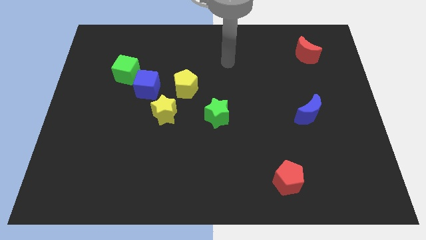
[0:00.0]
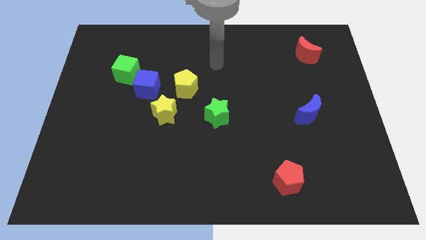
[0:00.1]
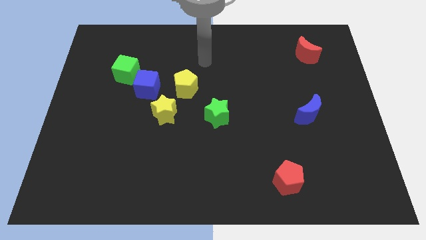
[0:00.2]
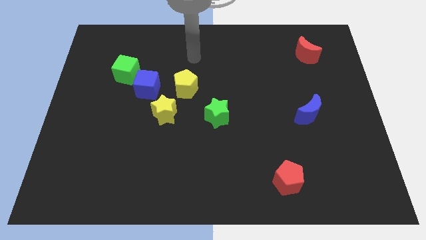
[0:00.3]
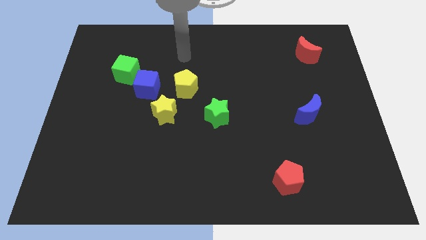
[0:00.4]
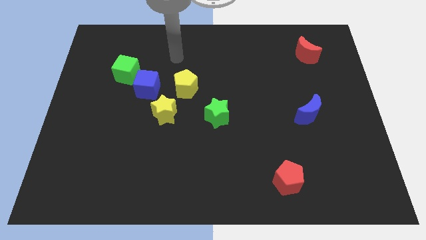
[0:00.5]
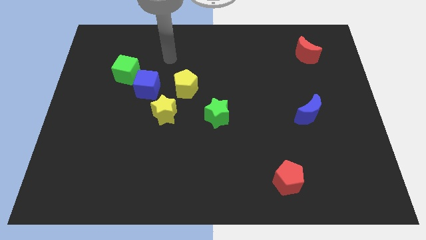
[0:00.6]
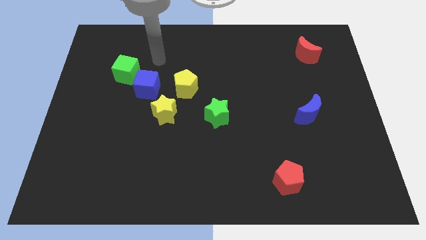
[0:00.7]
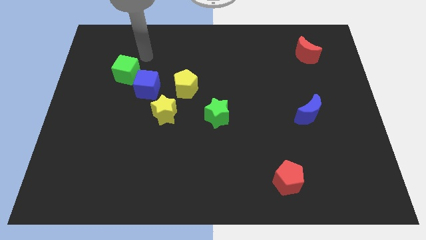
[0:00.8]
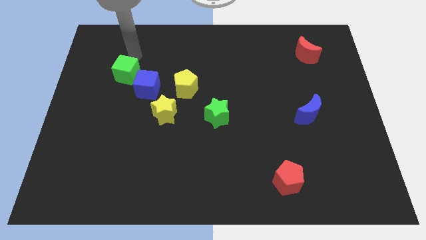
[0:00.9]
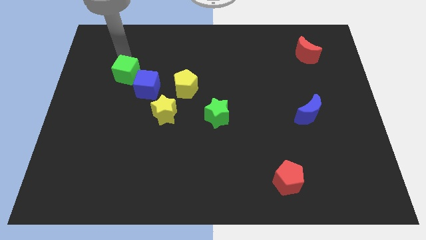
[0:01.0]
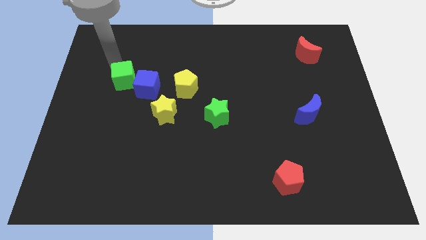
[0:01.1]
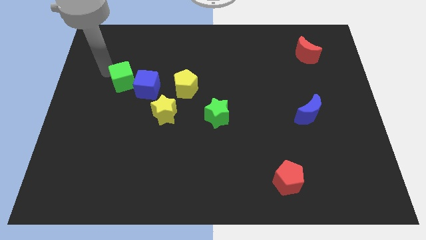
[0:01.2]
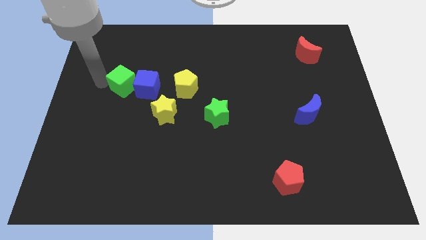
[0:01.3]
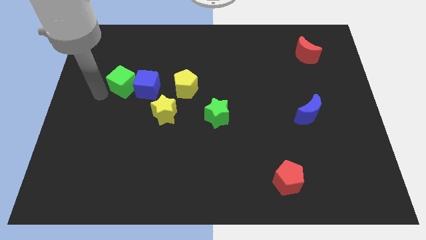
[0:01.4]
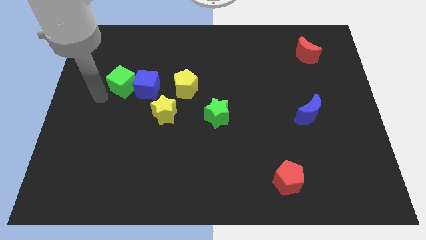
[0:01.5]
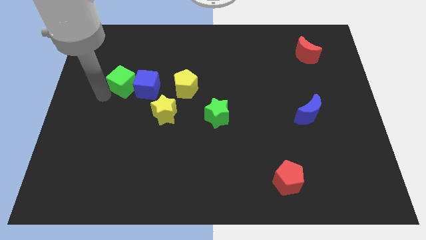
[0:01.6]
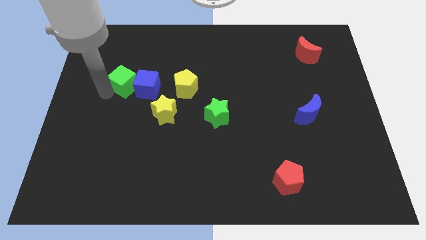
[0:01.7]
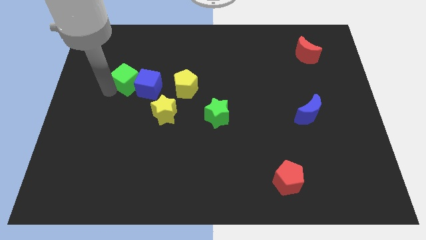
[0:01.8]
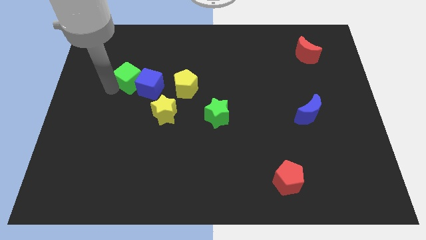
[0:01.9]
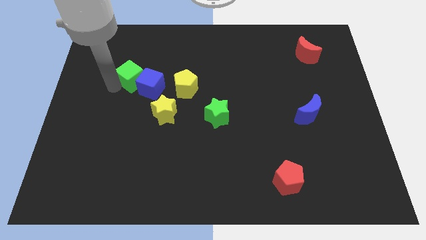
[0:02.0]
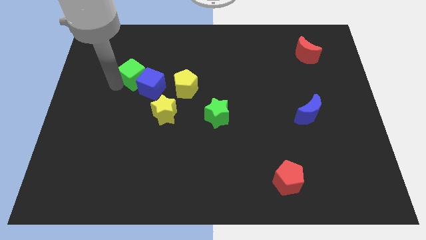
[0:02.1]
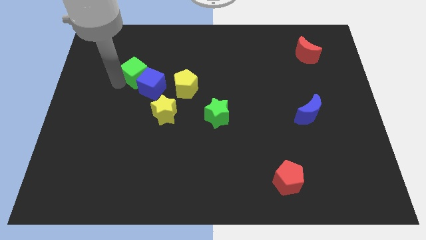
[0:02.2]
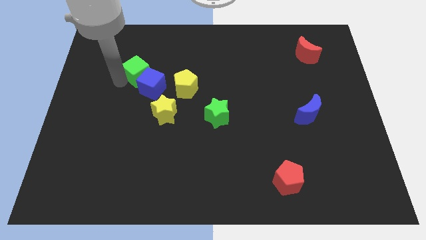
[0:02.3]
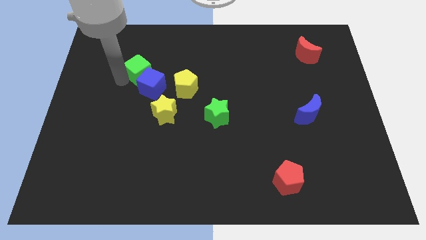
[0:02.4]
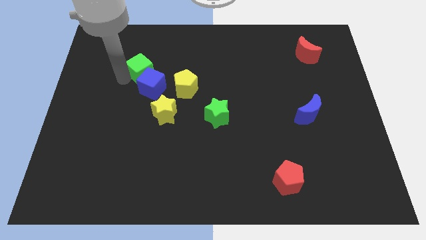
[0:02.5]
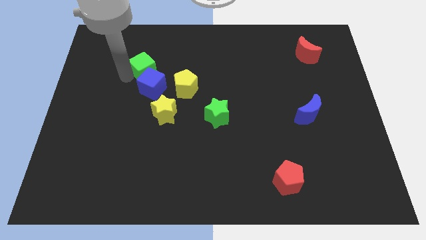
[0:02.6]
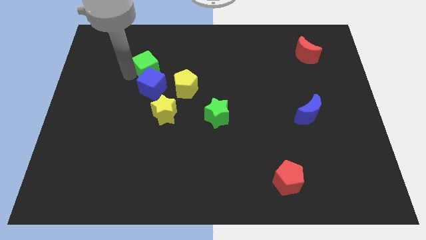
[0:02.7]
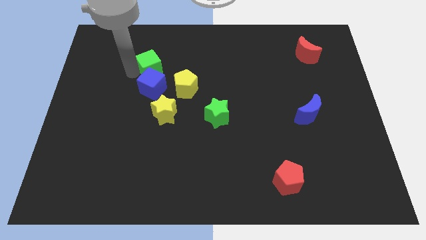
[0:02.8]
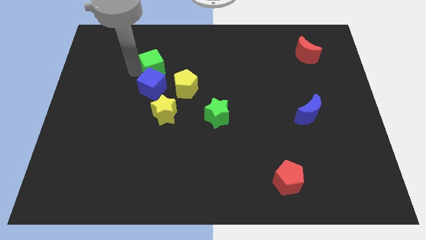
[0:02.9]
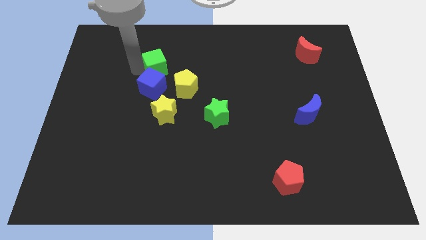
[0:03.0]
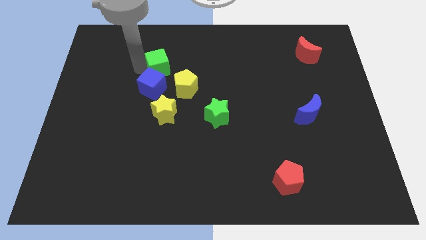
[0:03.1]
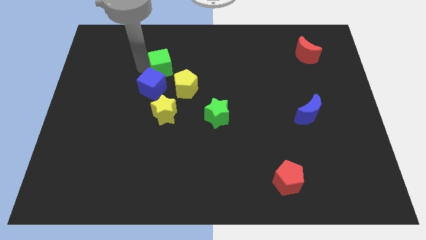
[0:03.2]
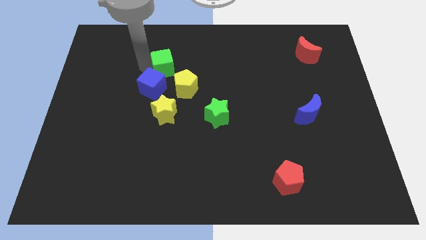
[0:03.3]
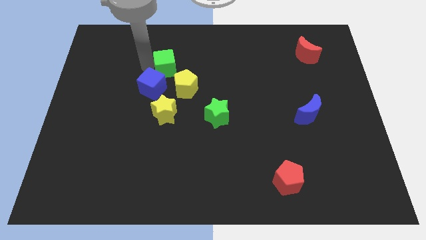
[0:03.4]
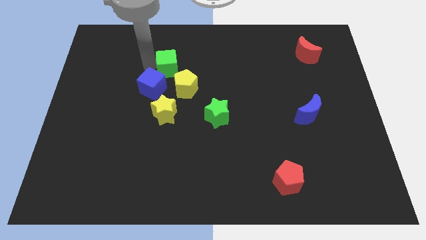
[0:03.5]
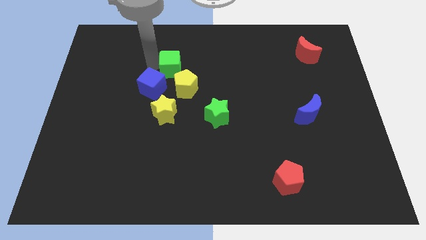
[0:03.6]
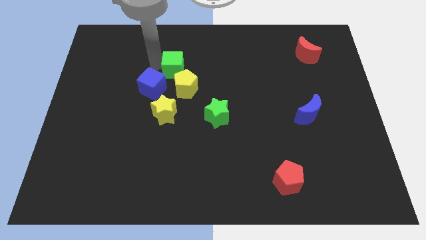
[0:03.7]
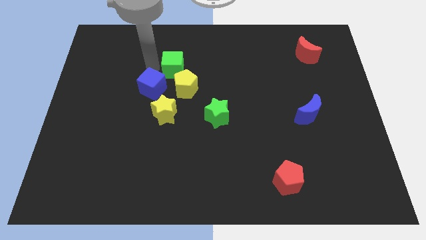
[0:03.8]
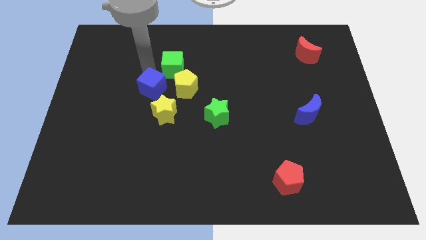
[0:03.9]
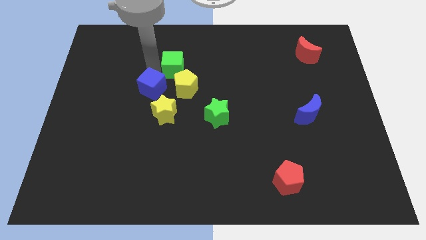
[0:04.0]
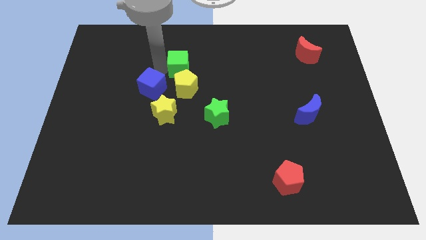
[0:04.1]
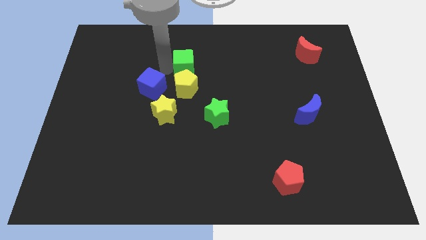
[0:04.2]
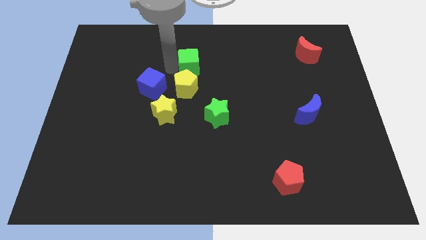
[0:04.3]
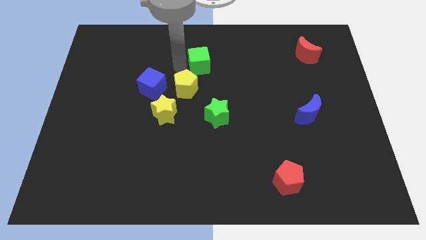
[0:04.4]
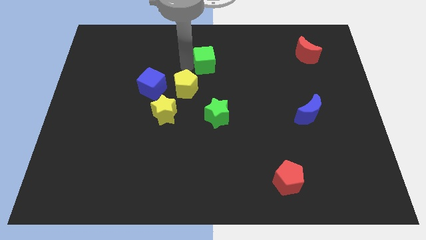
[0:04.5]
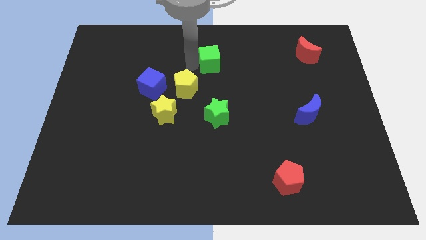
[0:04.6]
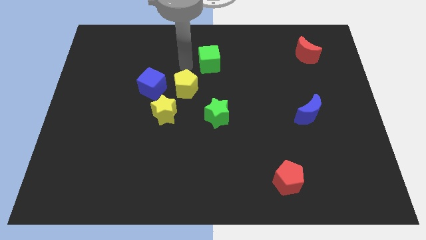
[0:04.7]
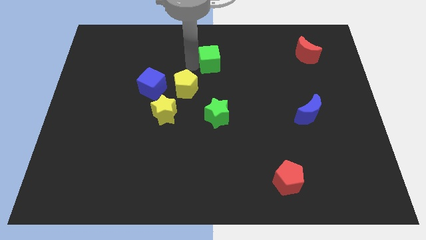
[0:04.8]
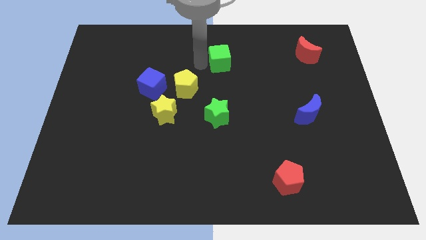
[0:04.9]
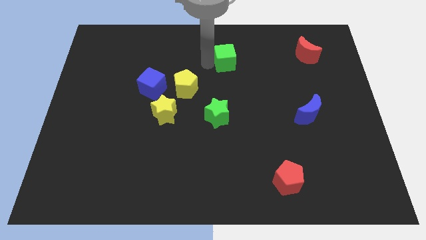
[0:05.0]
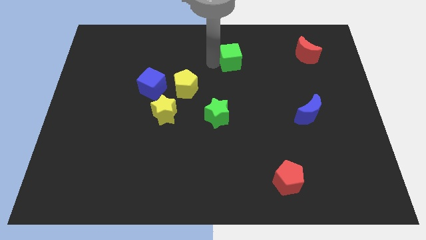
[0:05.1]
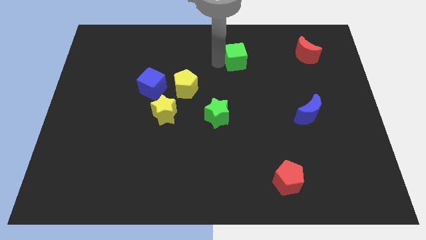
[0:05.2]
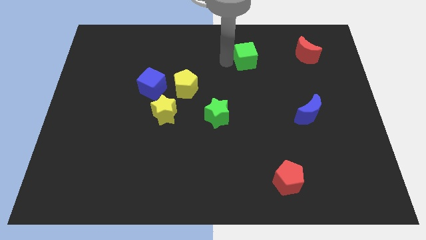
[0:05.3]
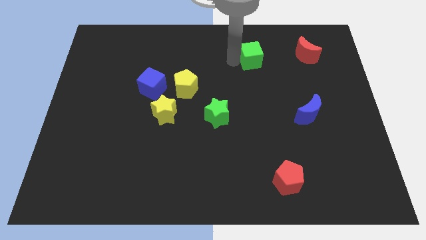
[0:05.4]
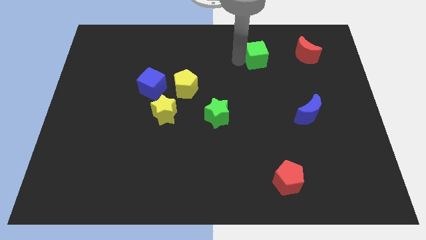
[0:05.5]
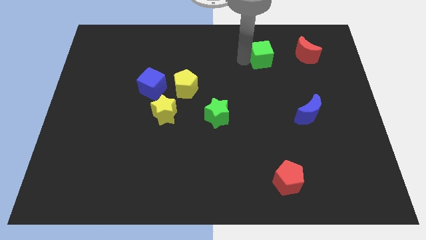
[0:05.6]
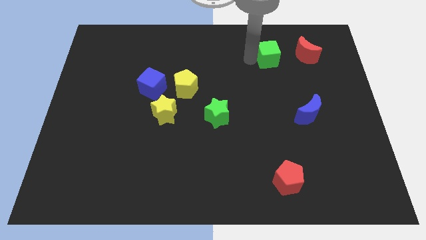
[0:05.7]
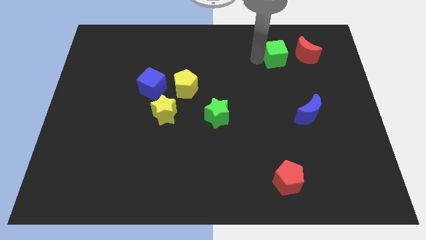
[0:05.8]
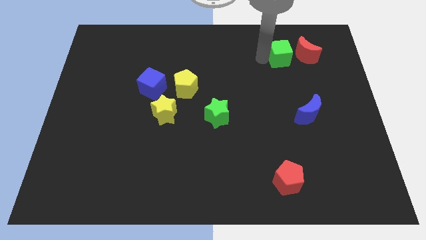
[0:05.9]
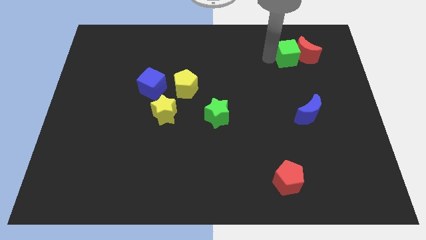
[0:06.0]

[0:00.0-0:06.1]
slide the green cube to the red moon

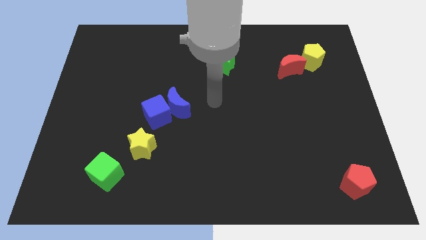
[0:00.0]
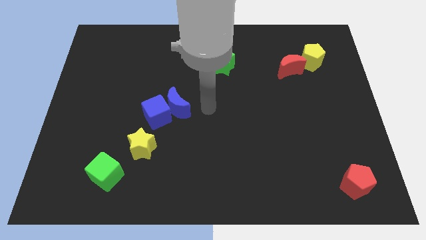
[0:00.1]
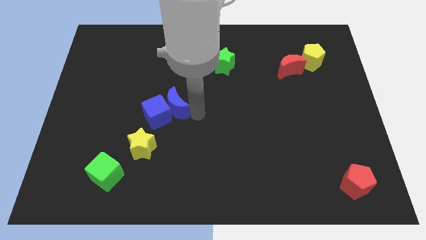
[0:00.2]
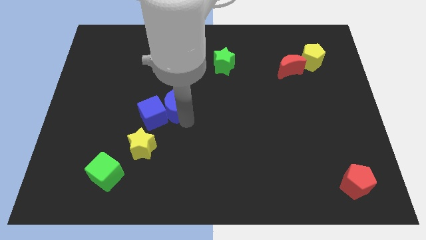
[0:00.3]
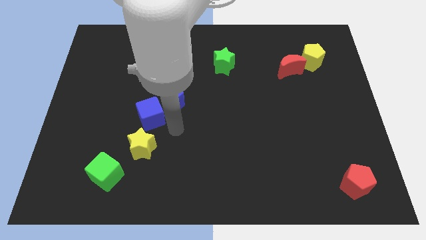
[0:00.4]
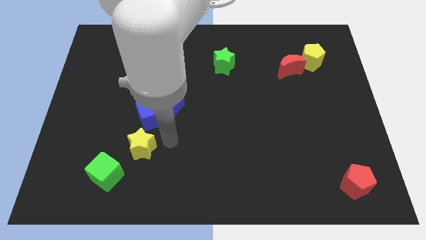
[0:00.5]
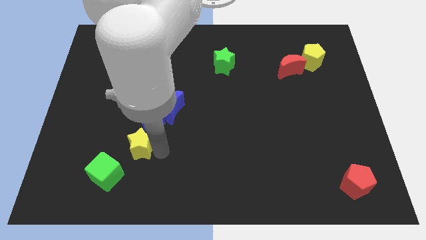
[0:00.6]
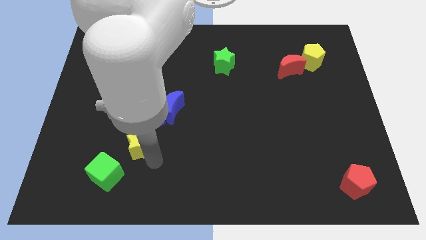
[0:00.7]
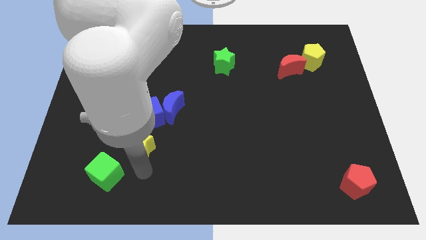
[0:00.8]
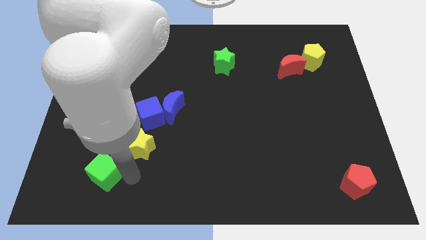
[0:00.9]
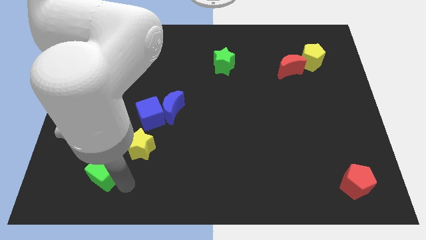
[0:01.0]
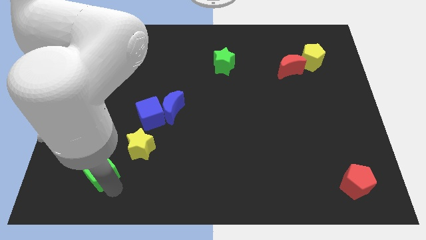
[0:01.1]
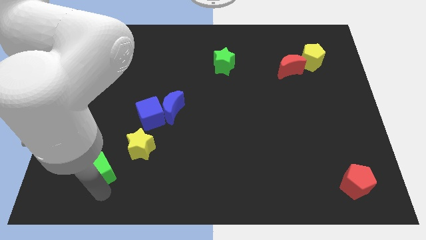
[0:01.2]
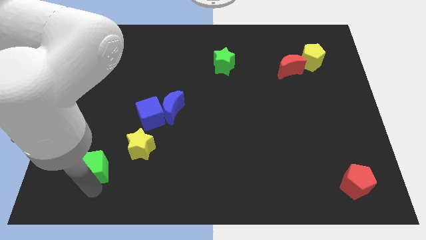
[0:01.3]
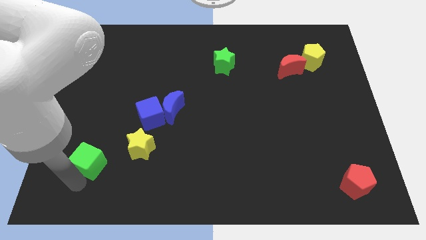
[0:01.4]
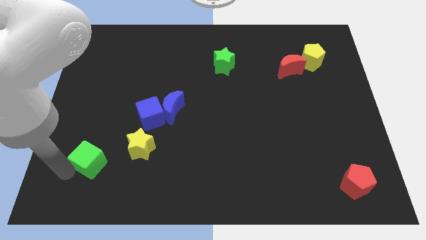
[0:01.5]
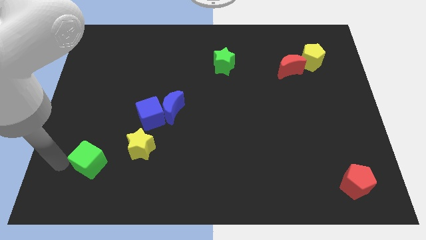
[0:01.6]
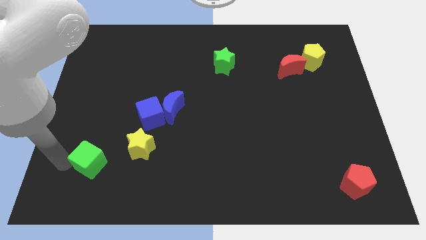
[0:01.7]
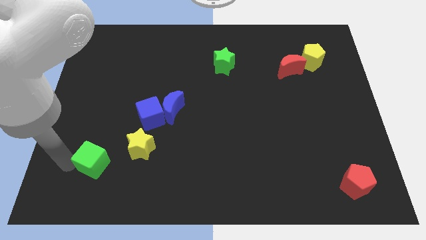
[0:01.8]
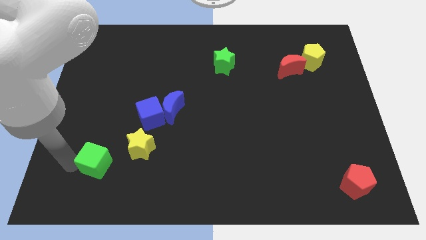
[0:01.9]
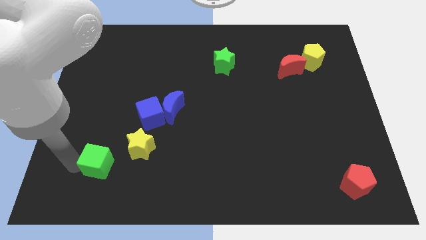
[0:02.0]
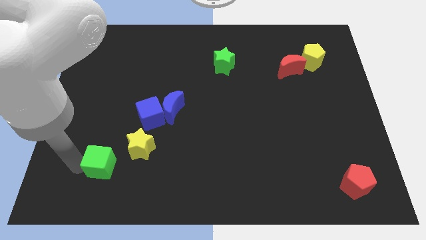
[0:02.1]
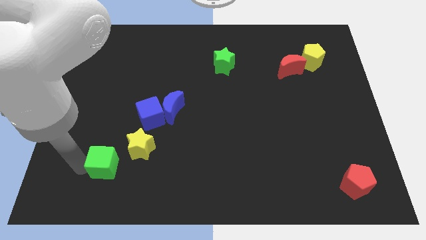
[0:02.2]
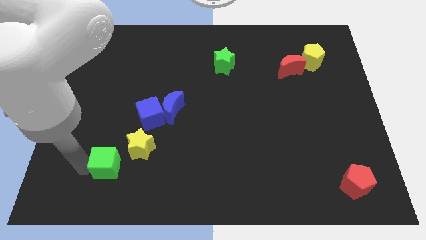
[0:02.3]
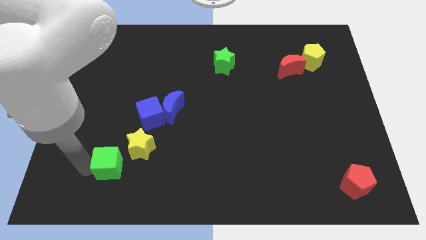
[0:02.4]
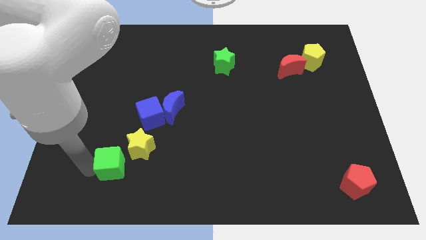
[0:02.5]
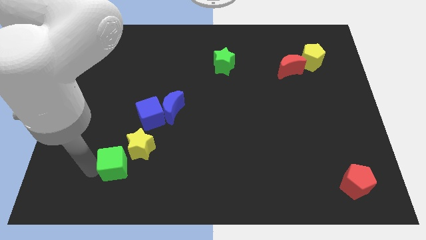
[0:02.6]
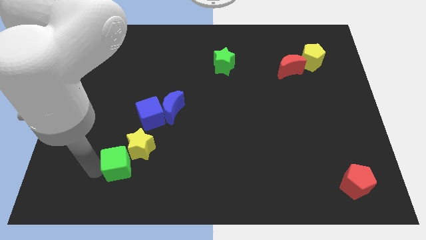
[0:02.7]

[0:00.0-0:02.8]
put the green cube next to the yellow star
